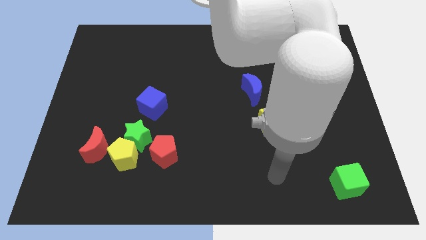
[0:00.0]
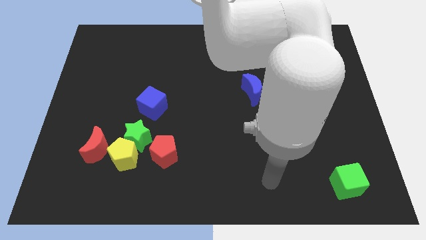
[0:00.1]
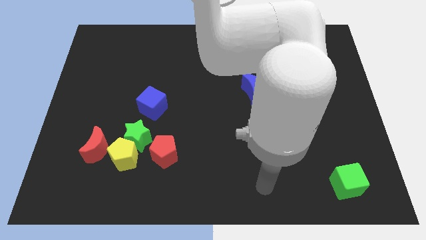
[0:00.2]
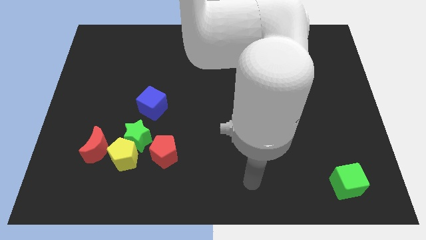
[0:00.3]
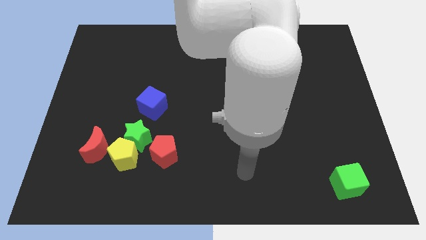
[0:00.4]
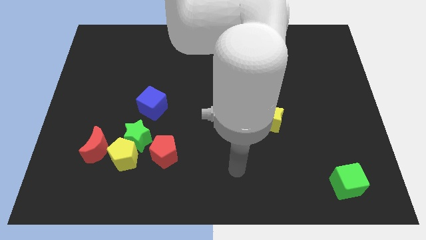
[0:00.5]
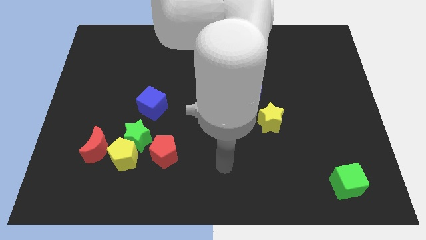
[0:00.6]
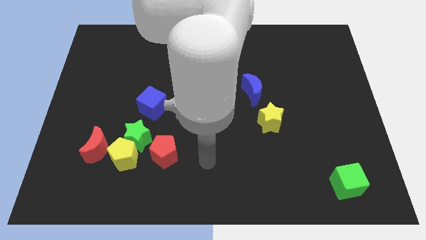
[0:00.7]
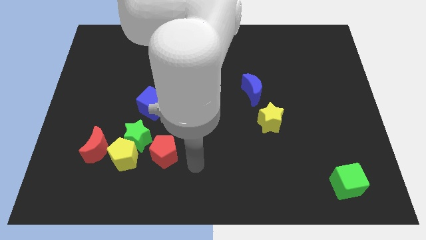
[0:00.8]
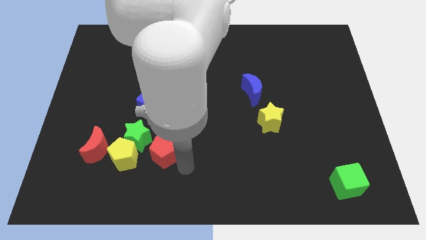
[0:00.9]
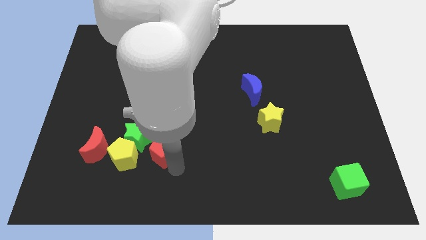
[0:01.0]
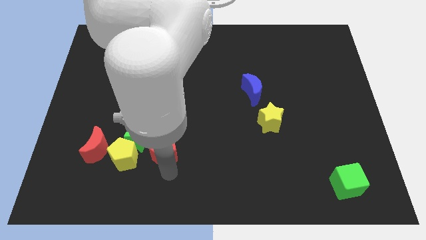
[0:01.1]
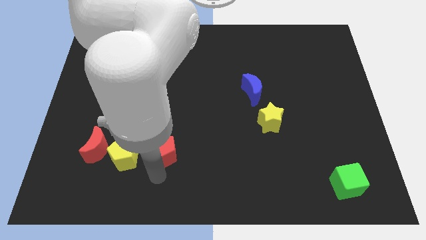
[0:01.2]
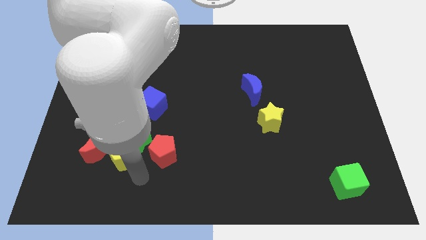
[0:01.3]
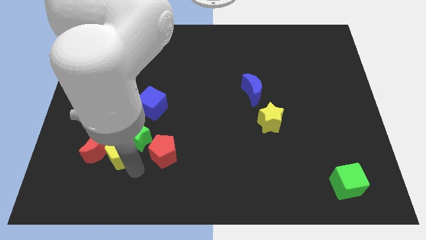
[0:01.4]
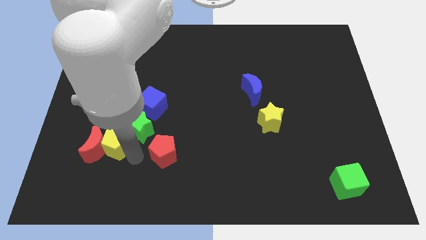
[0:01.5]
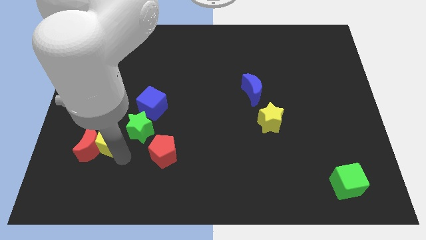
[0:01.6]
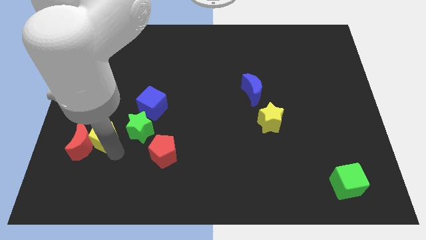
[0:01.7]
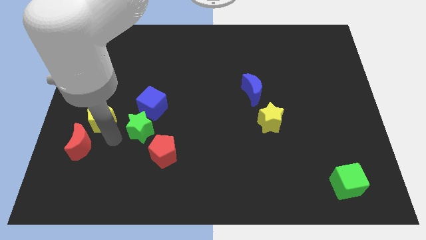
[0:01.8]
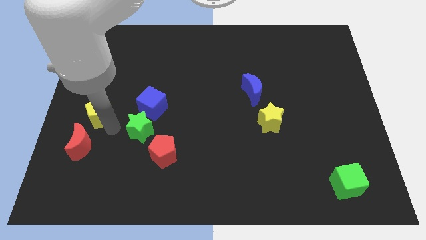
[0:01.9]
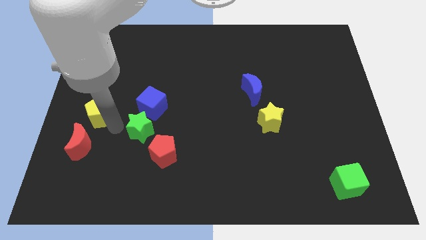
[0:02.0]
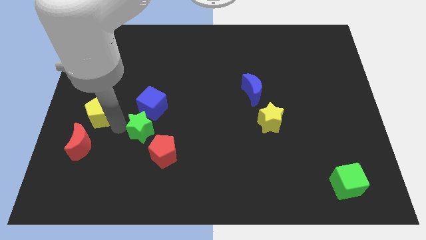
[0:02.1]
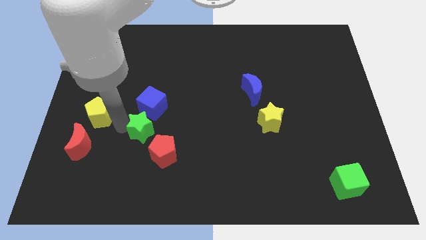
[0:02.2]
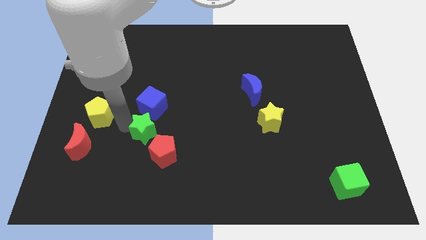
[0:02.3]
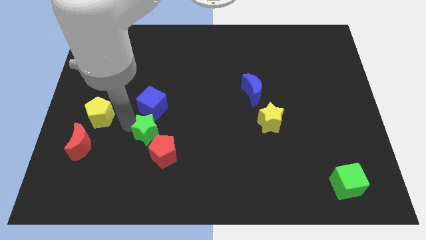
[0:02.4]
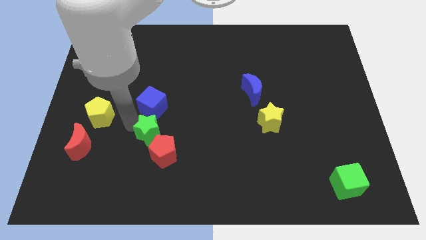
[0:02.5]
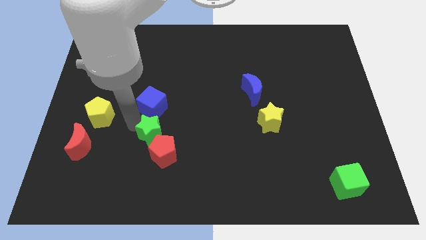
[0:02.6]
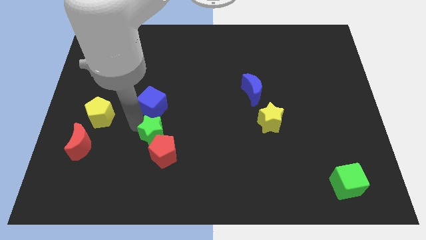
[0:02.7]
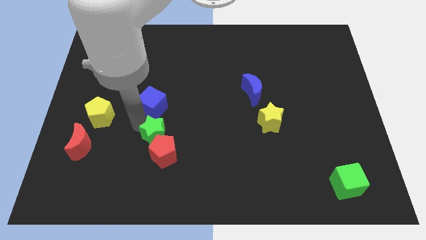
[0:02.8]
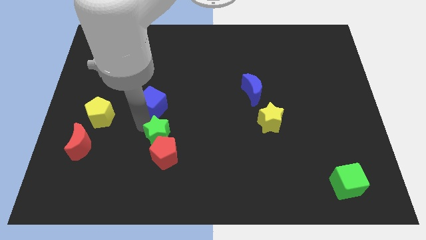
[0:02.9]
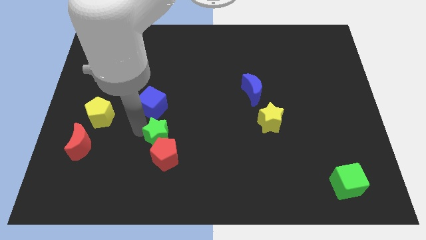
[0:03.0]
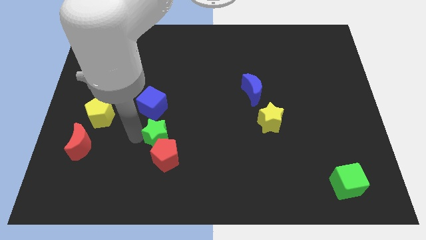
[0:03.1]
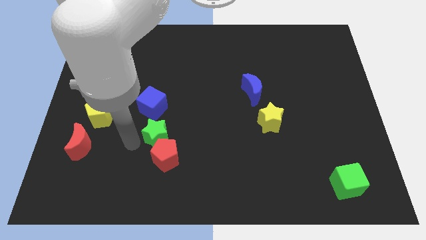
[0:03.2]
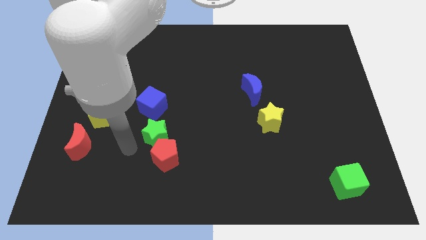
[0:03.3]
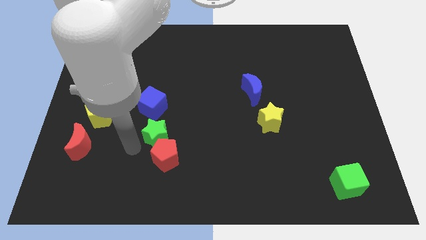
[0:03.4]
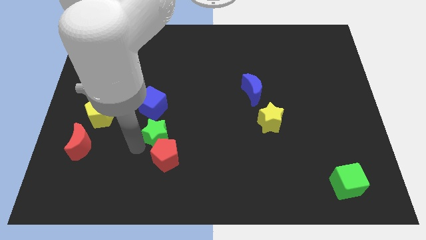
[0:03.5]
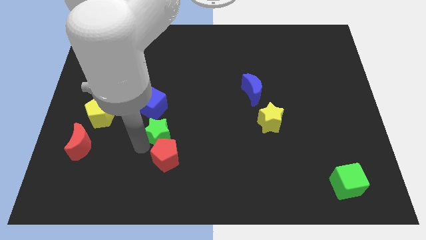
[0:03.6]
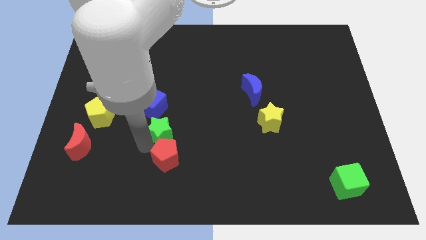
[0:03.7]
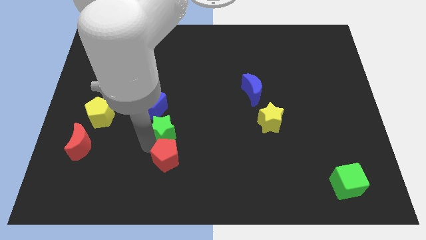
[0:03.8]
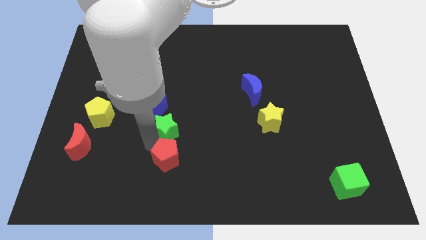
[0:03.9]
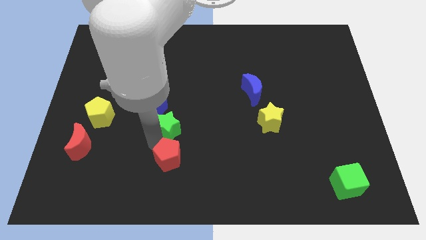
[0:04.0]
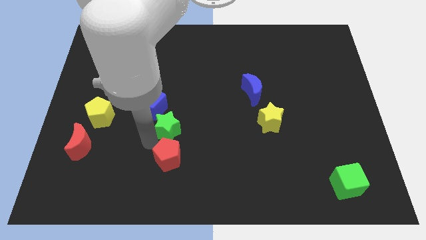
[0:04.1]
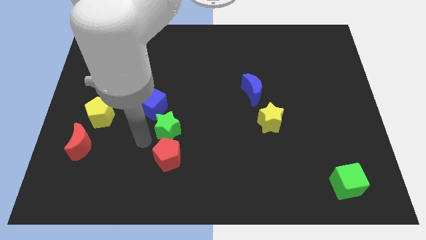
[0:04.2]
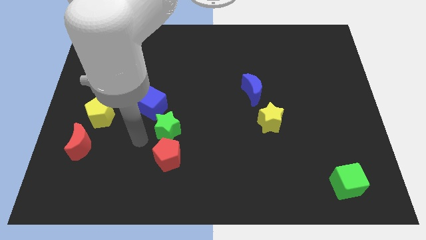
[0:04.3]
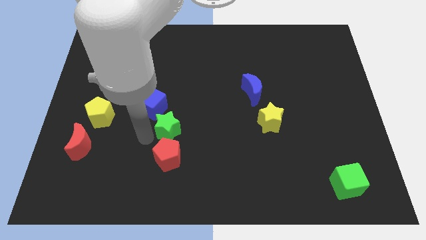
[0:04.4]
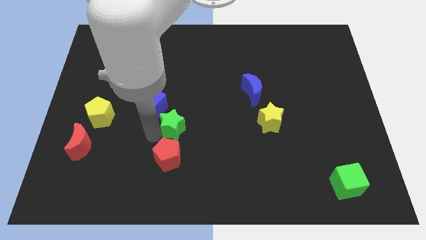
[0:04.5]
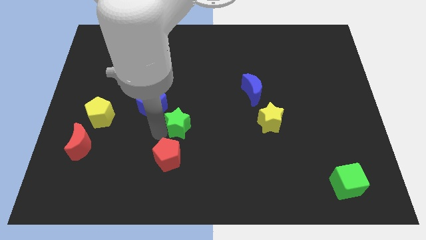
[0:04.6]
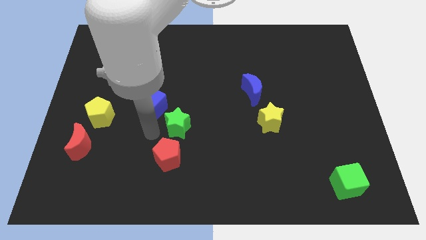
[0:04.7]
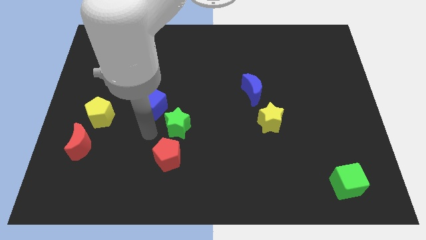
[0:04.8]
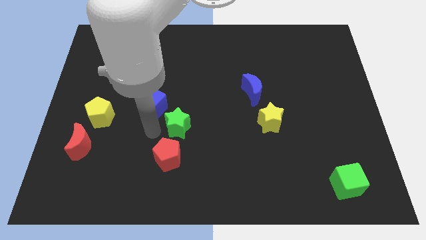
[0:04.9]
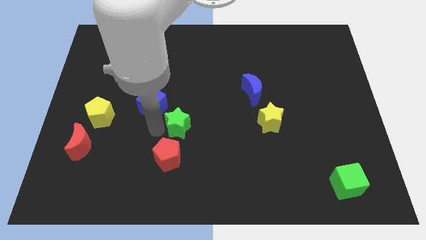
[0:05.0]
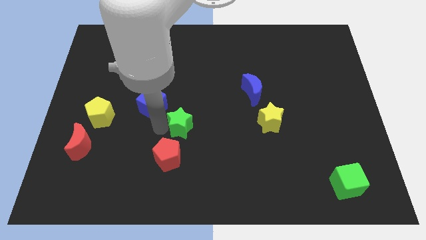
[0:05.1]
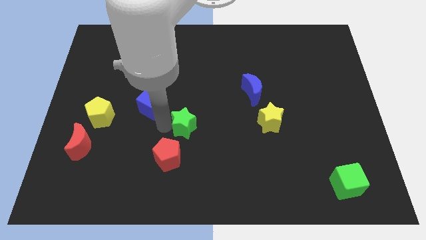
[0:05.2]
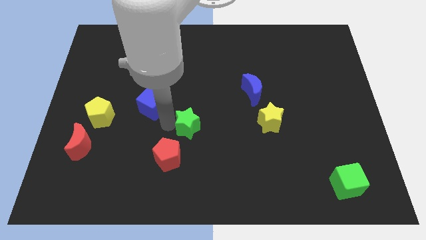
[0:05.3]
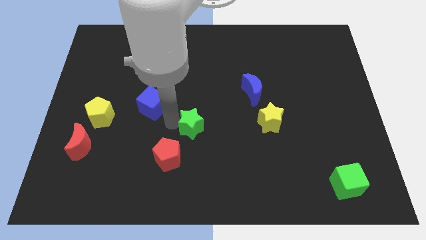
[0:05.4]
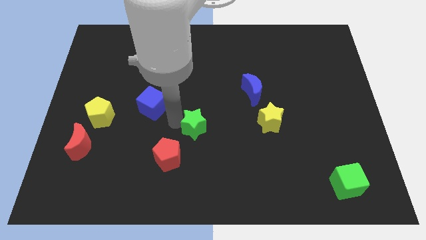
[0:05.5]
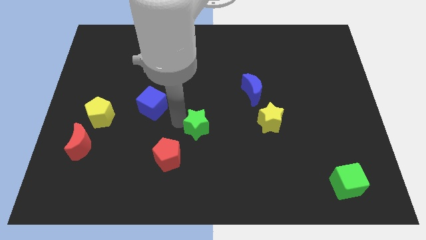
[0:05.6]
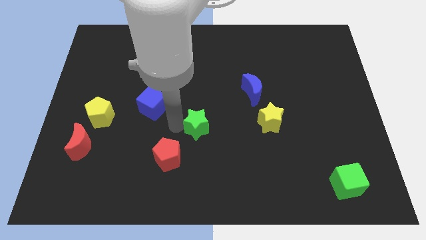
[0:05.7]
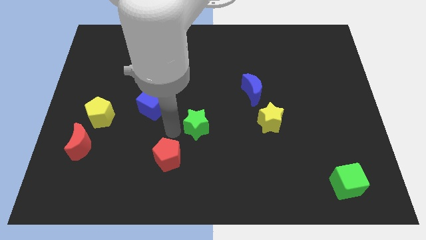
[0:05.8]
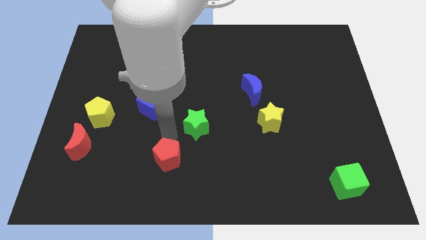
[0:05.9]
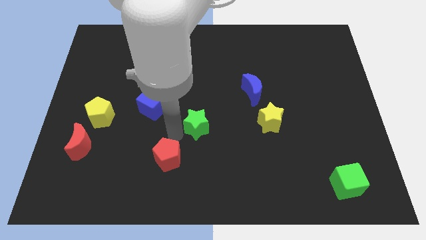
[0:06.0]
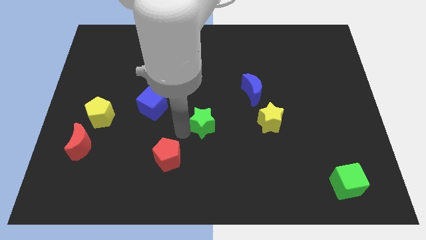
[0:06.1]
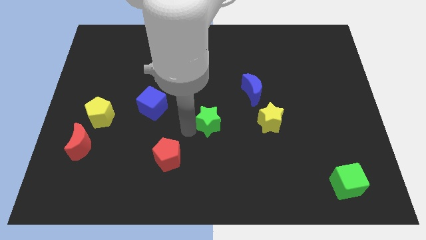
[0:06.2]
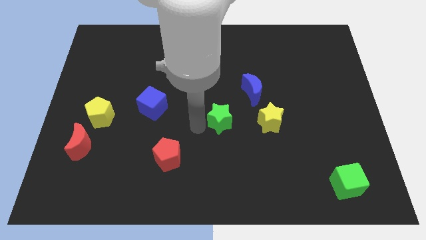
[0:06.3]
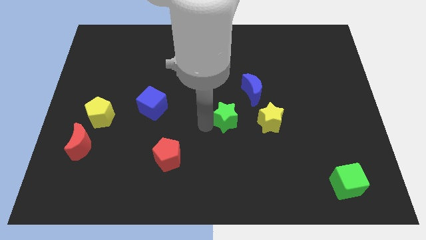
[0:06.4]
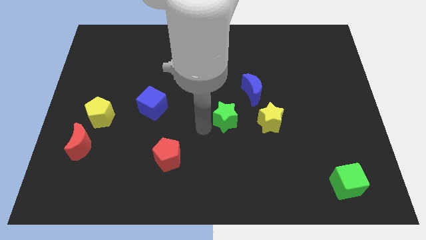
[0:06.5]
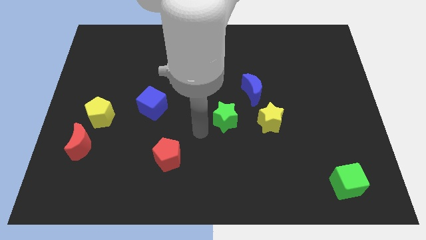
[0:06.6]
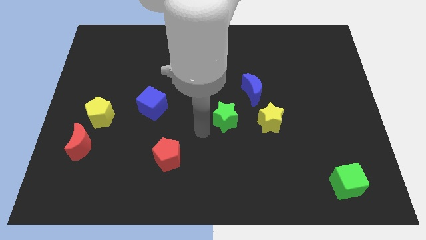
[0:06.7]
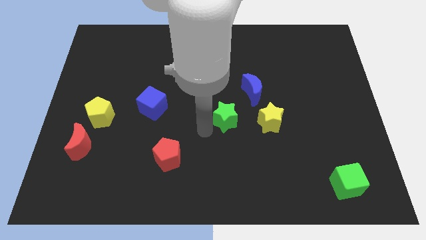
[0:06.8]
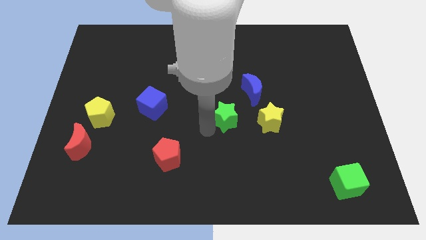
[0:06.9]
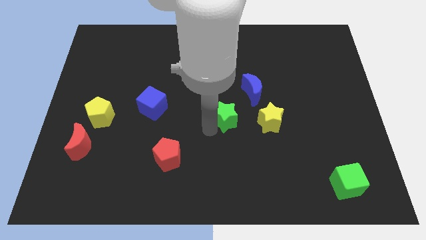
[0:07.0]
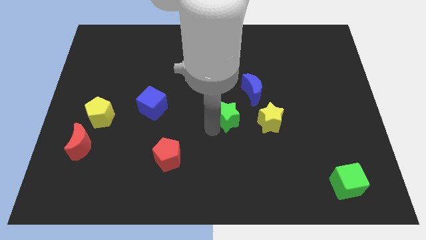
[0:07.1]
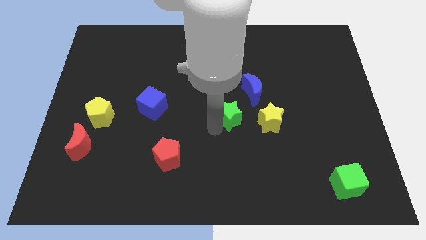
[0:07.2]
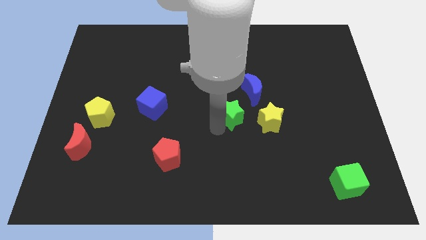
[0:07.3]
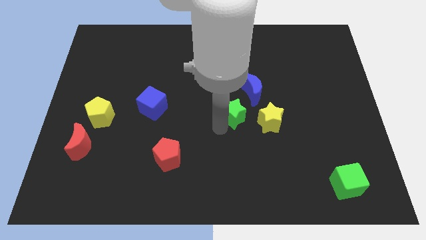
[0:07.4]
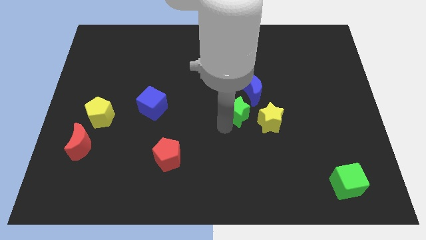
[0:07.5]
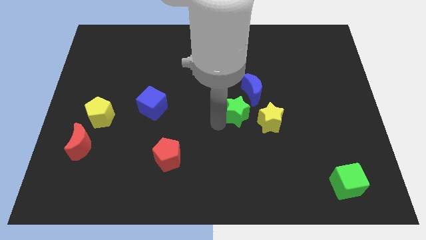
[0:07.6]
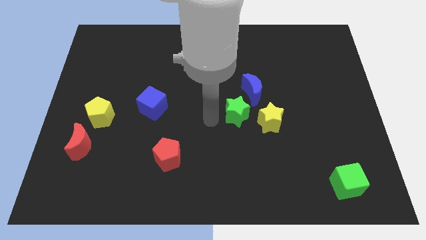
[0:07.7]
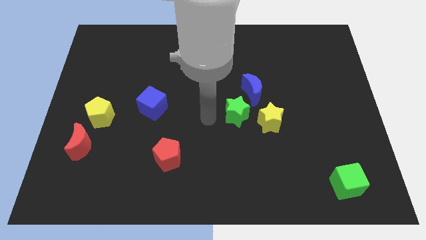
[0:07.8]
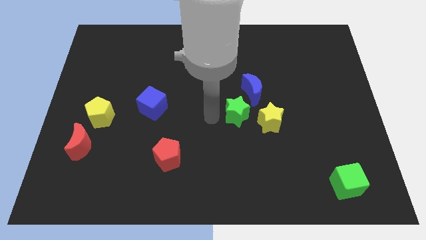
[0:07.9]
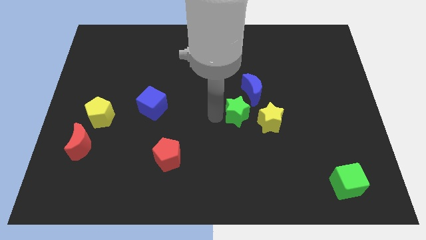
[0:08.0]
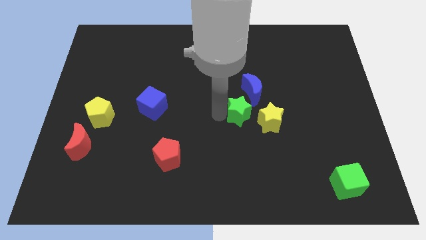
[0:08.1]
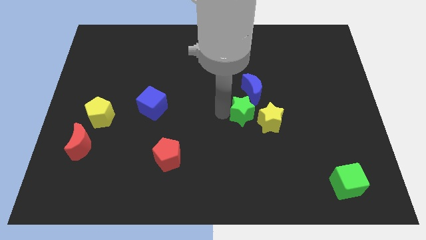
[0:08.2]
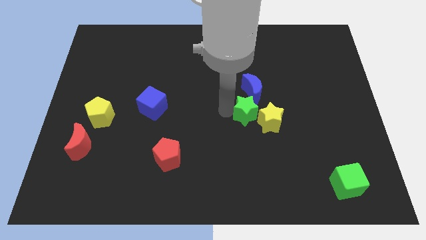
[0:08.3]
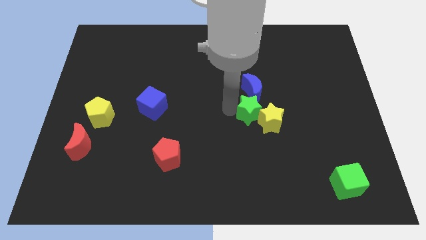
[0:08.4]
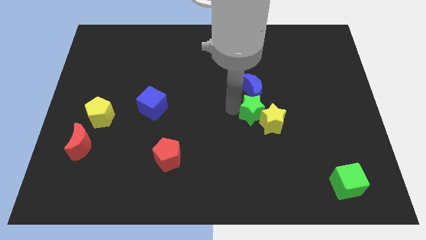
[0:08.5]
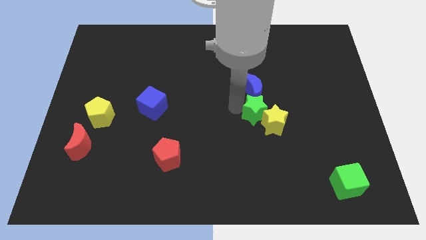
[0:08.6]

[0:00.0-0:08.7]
put the green star to the bottom right side of the blue moon
